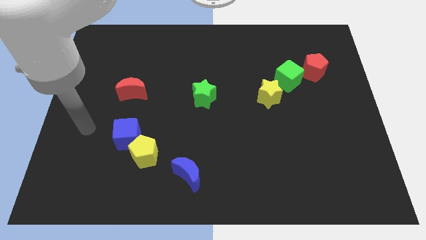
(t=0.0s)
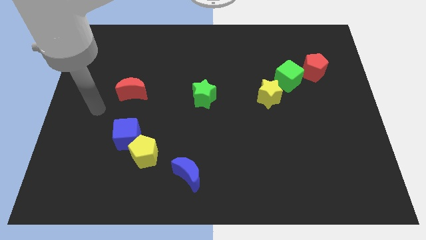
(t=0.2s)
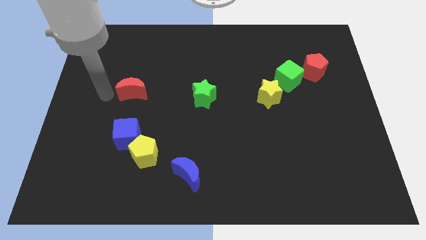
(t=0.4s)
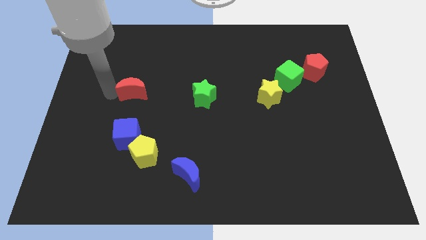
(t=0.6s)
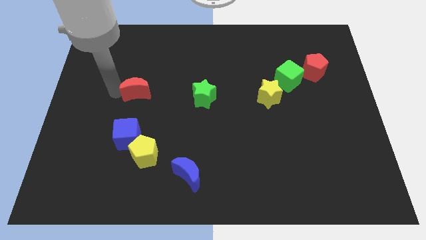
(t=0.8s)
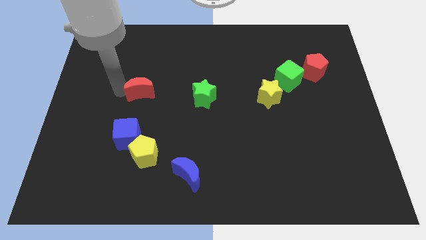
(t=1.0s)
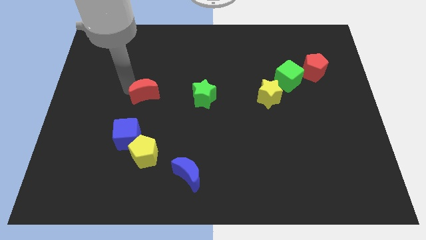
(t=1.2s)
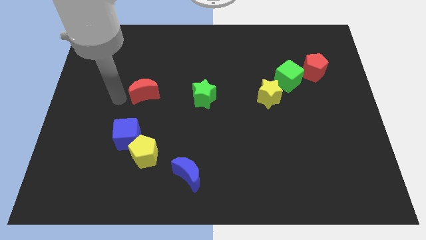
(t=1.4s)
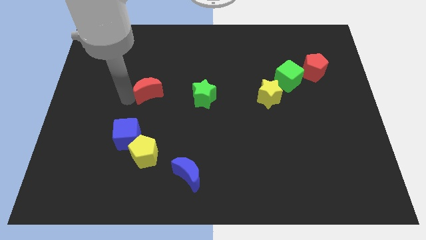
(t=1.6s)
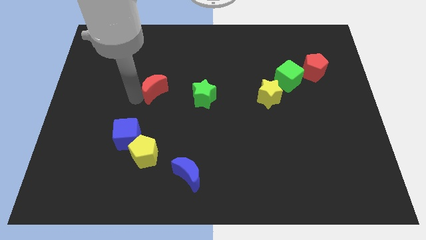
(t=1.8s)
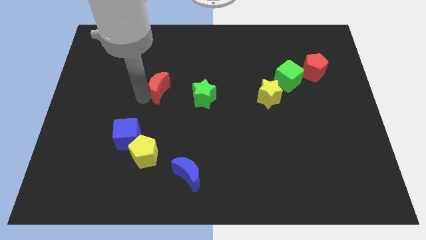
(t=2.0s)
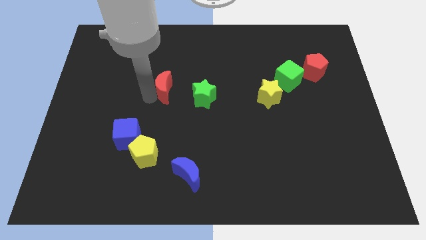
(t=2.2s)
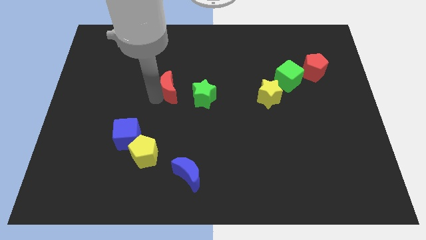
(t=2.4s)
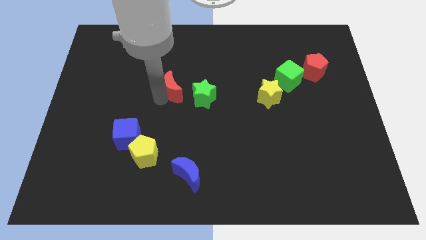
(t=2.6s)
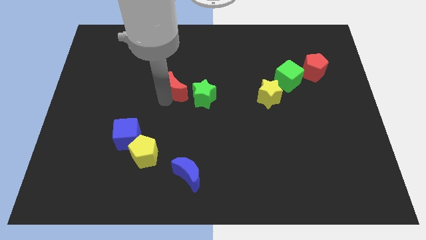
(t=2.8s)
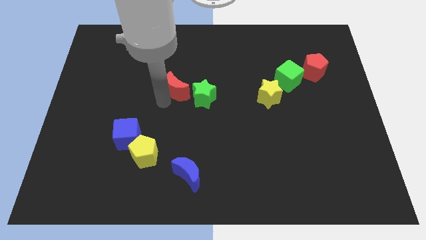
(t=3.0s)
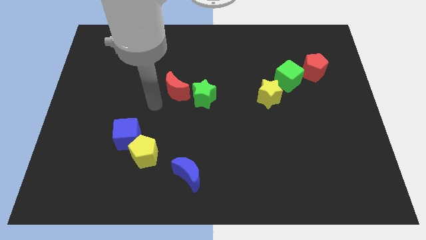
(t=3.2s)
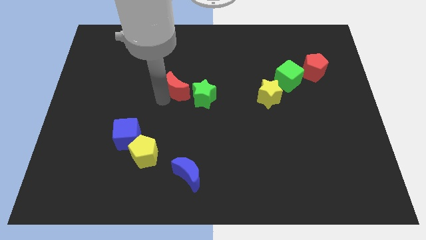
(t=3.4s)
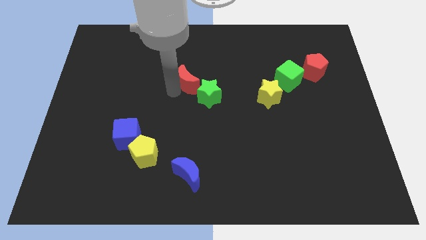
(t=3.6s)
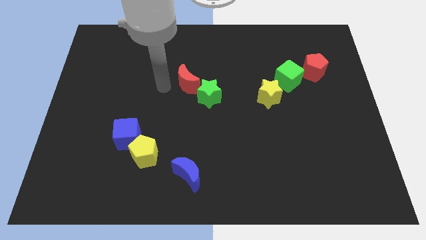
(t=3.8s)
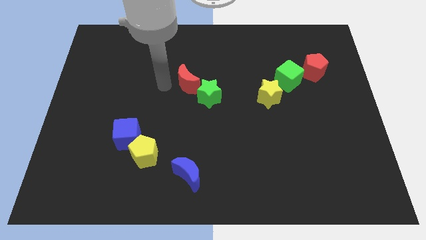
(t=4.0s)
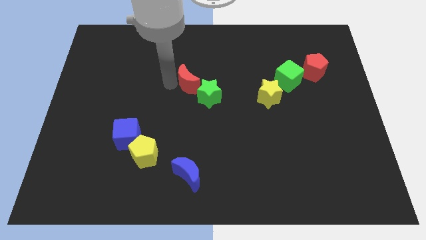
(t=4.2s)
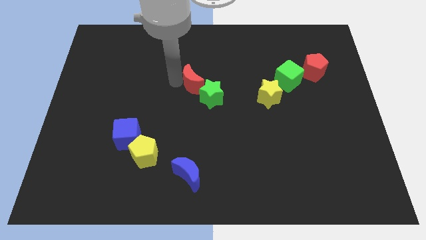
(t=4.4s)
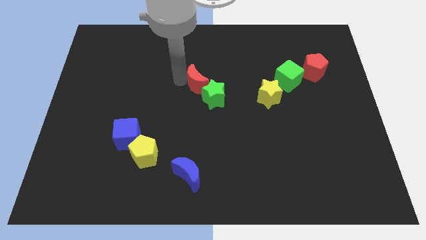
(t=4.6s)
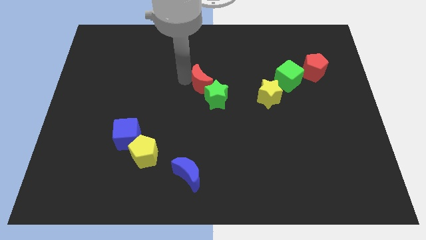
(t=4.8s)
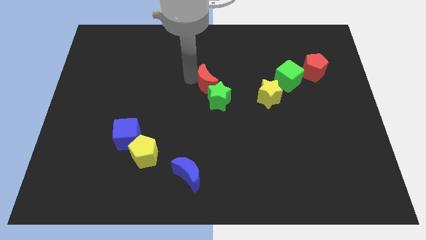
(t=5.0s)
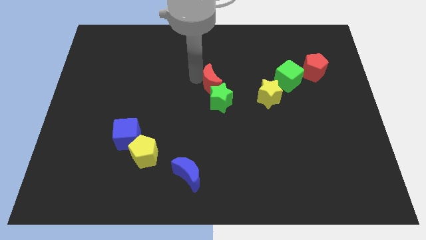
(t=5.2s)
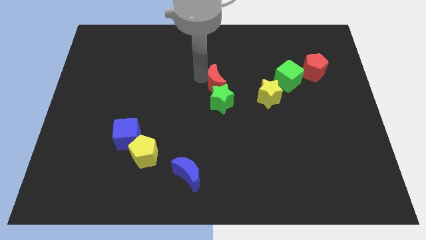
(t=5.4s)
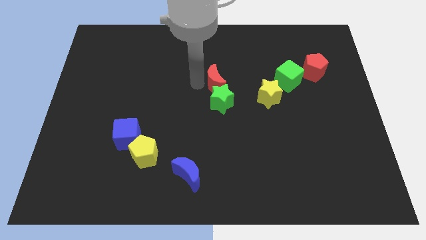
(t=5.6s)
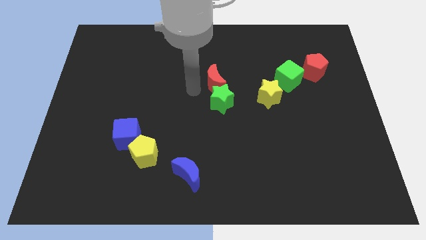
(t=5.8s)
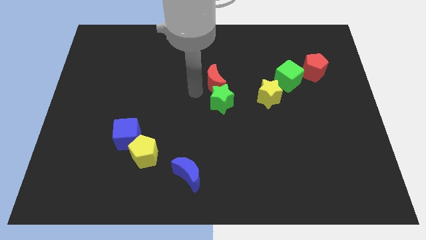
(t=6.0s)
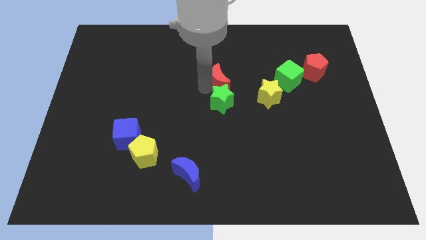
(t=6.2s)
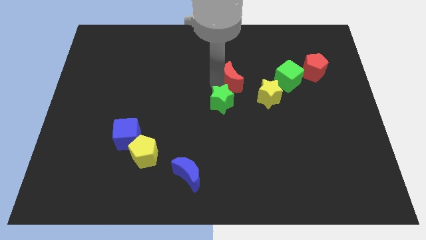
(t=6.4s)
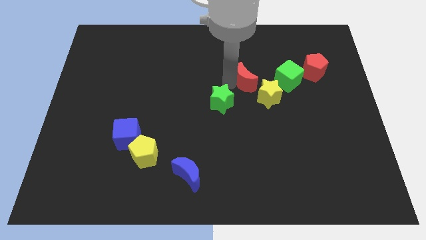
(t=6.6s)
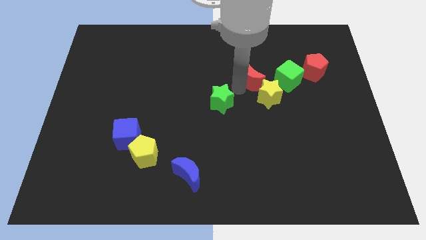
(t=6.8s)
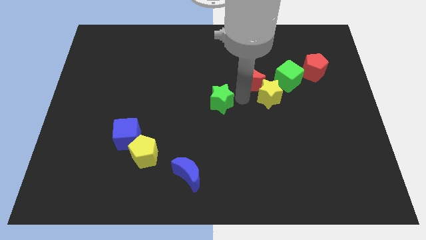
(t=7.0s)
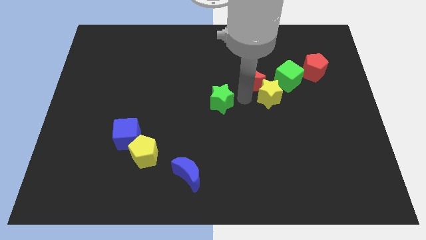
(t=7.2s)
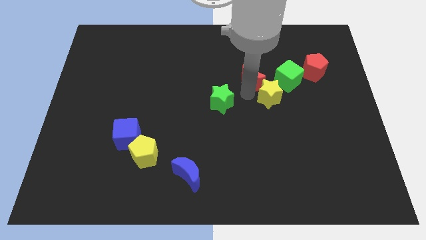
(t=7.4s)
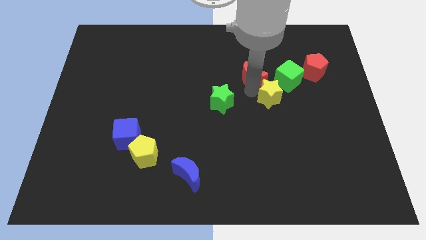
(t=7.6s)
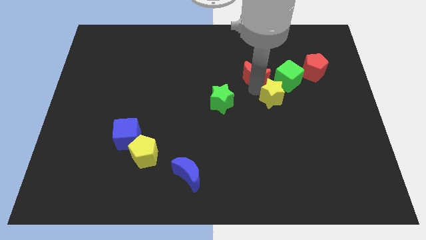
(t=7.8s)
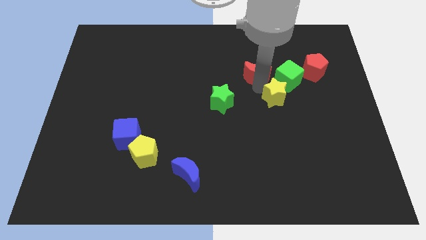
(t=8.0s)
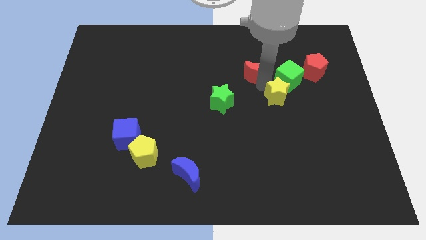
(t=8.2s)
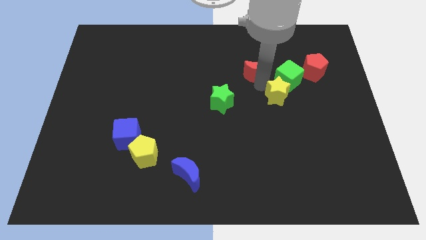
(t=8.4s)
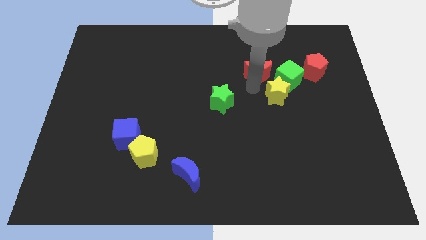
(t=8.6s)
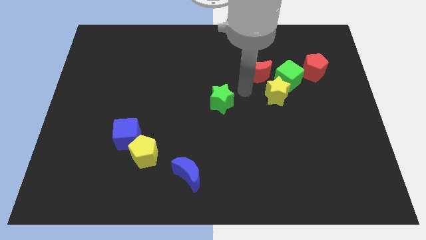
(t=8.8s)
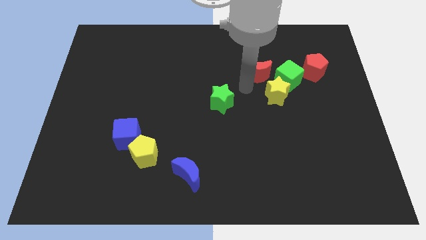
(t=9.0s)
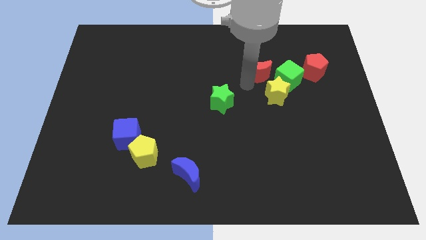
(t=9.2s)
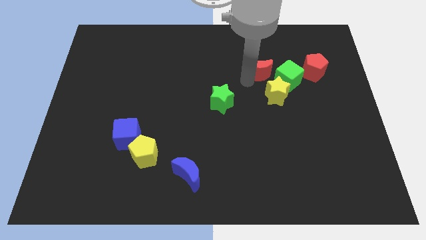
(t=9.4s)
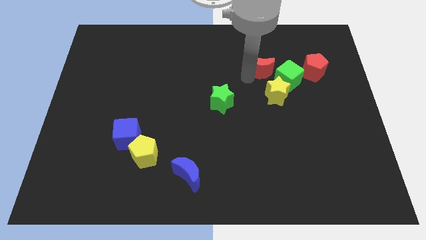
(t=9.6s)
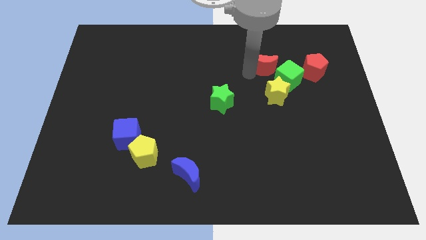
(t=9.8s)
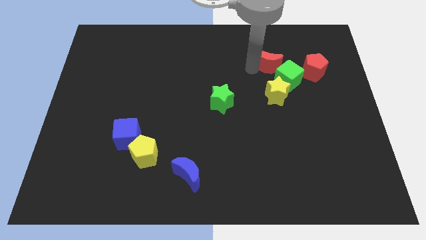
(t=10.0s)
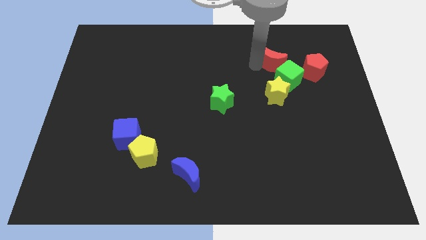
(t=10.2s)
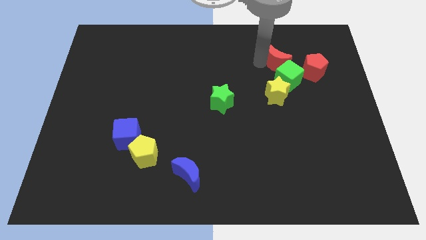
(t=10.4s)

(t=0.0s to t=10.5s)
move the red moon to the top left side of the red pentagon

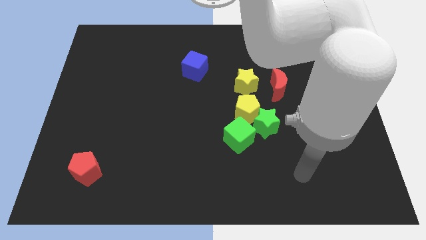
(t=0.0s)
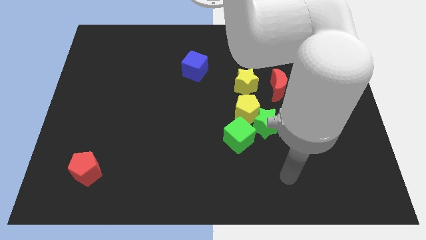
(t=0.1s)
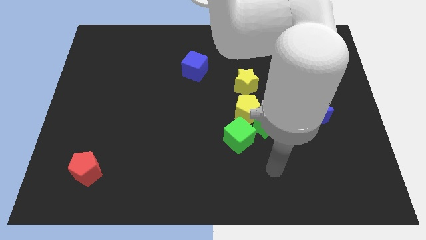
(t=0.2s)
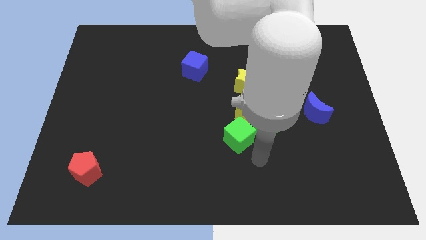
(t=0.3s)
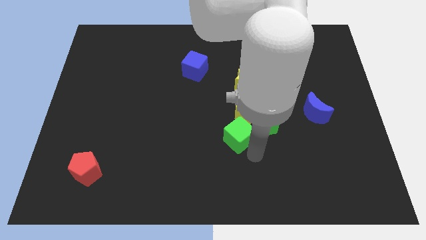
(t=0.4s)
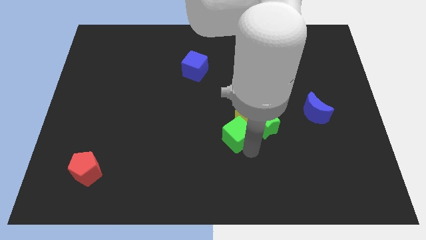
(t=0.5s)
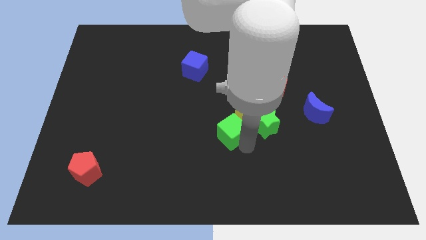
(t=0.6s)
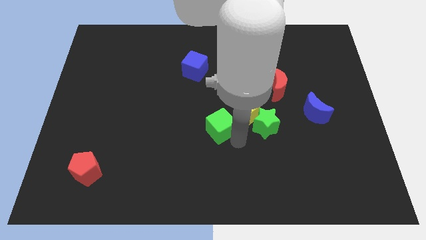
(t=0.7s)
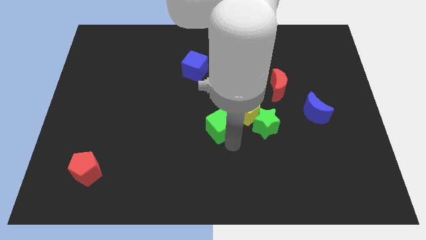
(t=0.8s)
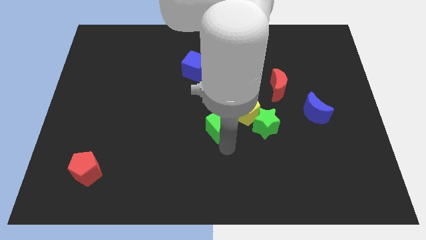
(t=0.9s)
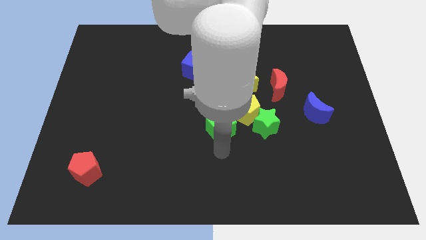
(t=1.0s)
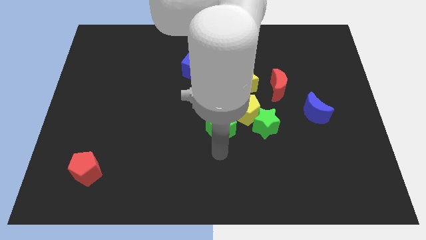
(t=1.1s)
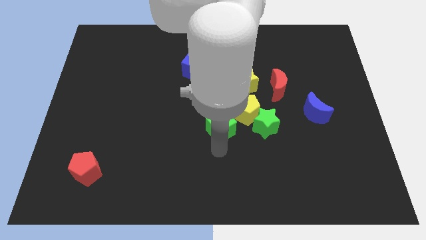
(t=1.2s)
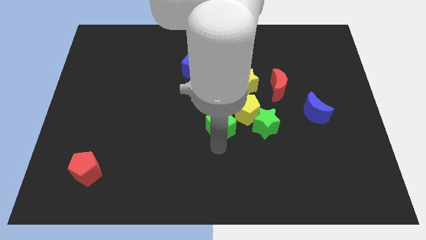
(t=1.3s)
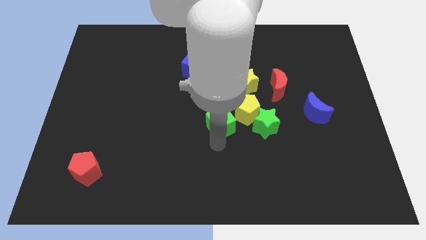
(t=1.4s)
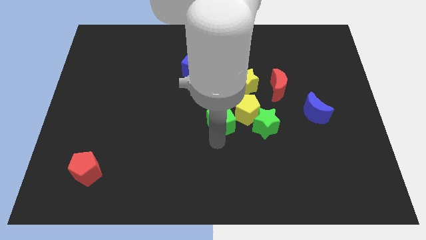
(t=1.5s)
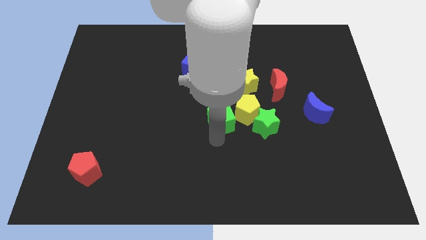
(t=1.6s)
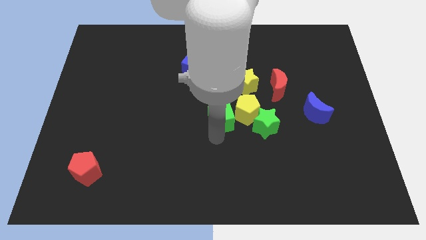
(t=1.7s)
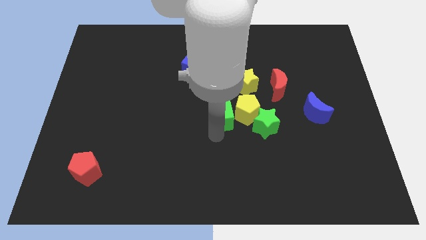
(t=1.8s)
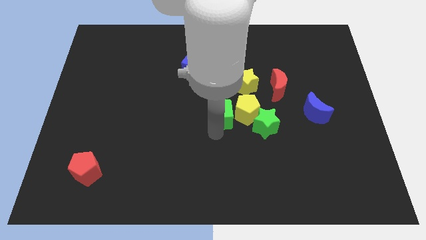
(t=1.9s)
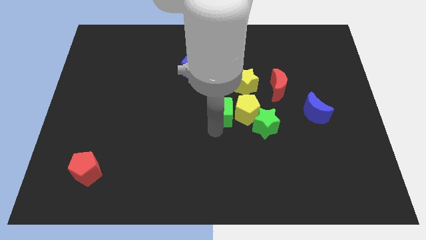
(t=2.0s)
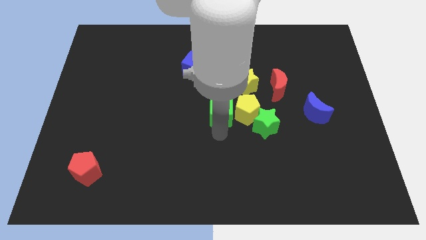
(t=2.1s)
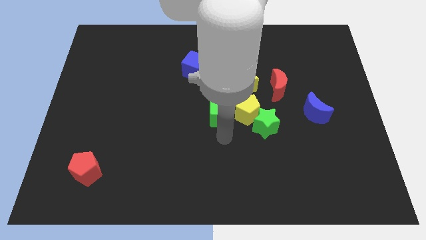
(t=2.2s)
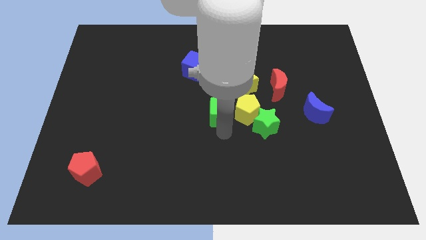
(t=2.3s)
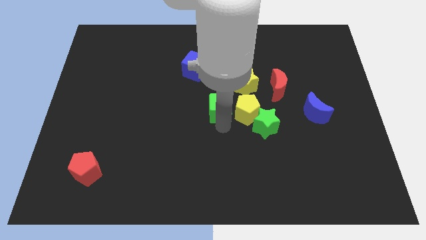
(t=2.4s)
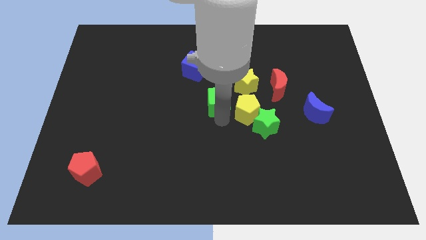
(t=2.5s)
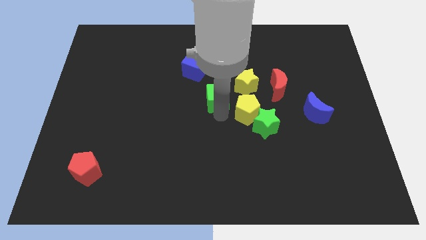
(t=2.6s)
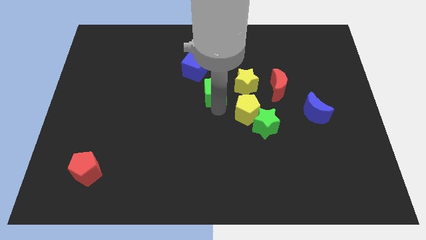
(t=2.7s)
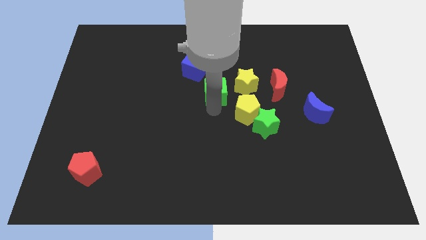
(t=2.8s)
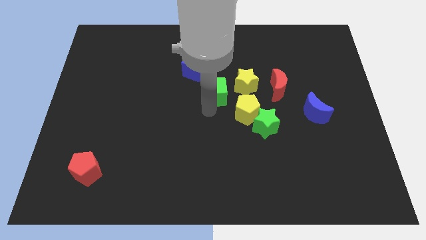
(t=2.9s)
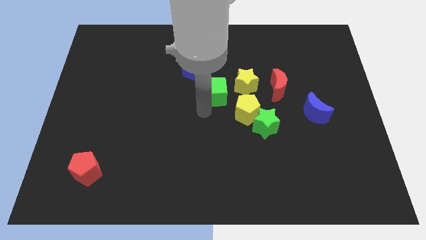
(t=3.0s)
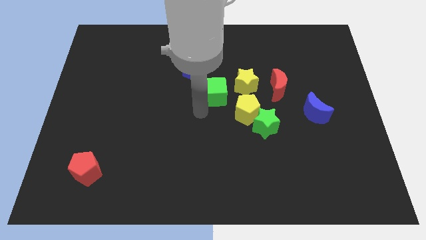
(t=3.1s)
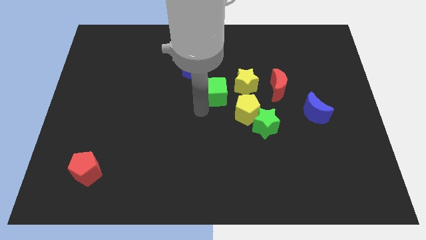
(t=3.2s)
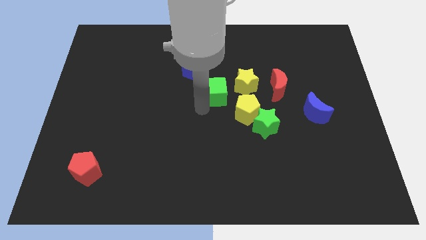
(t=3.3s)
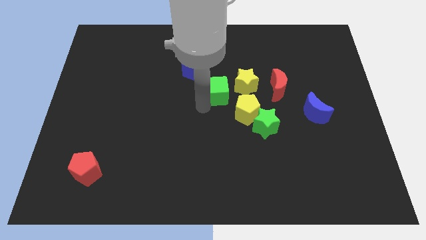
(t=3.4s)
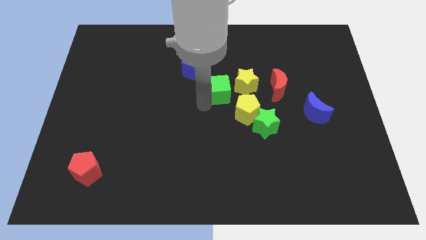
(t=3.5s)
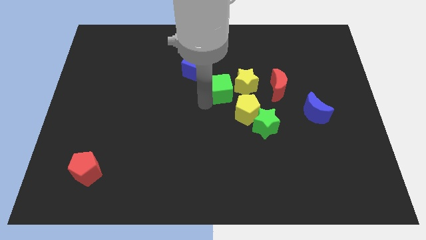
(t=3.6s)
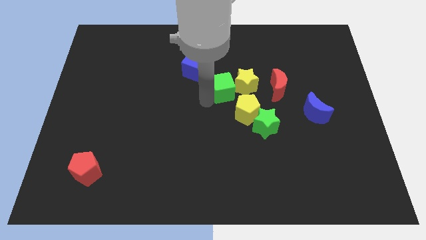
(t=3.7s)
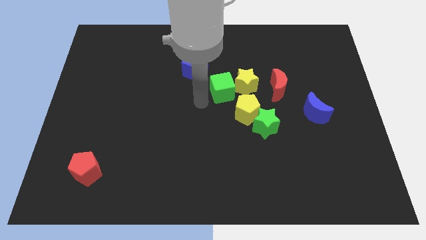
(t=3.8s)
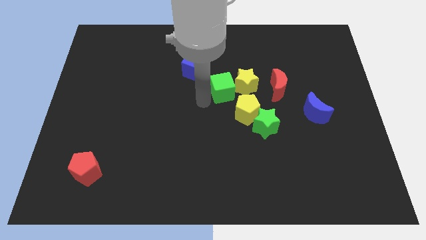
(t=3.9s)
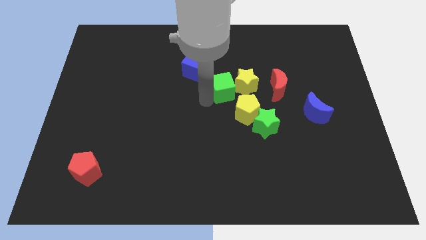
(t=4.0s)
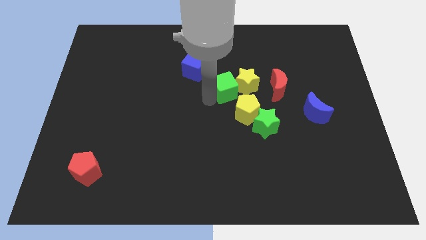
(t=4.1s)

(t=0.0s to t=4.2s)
put the green cube to the top of the yellow pentagon
